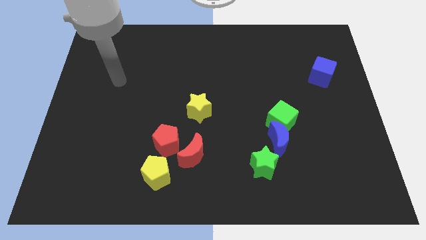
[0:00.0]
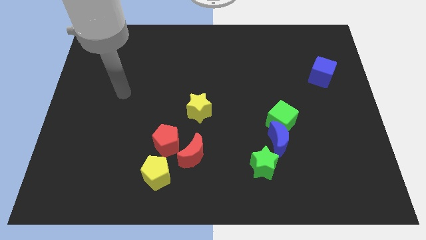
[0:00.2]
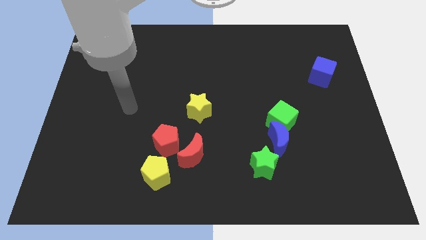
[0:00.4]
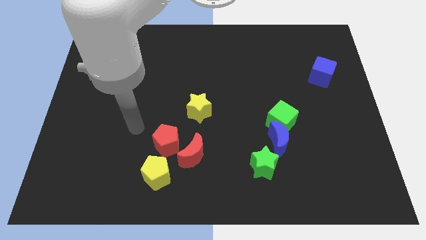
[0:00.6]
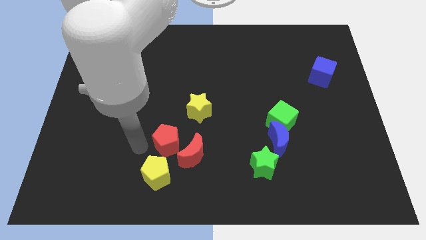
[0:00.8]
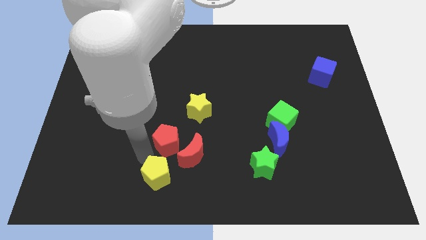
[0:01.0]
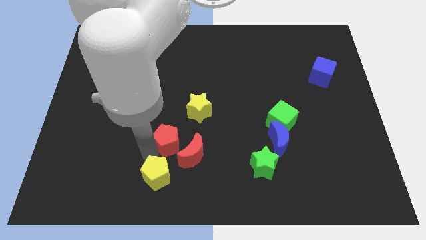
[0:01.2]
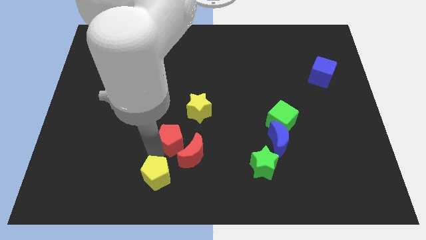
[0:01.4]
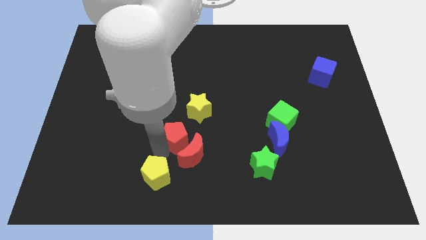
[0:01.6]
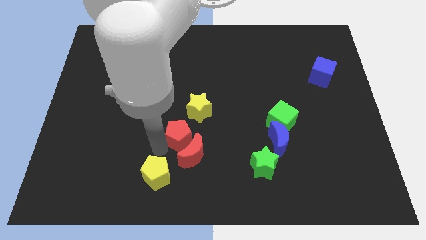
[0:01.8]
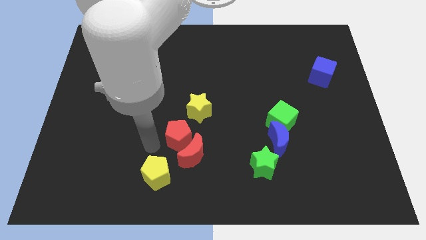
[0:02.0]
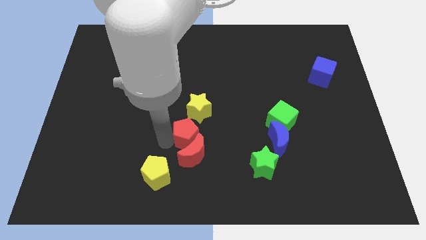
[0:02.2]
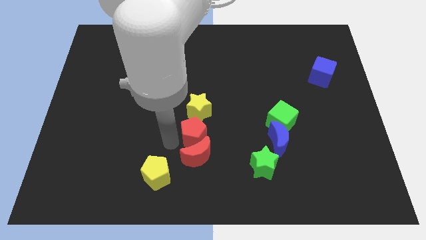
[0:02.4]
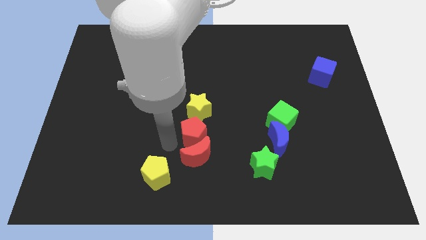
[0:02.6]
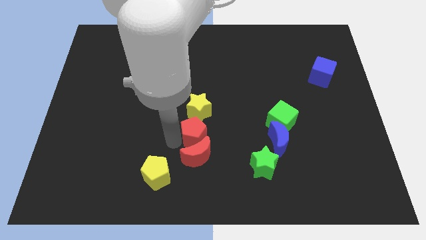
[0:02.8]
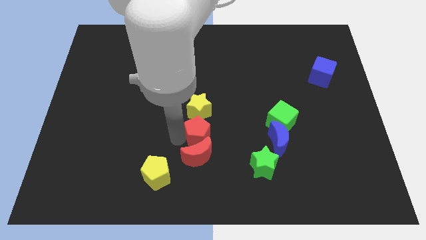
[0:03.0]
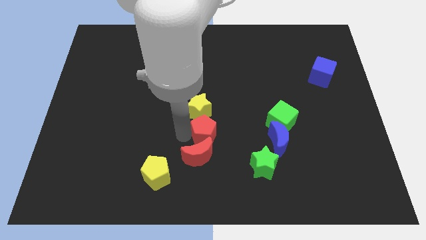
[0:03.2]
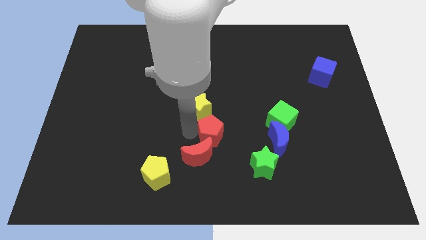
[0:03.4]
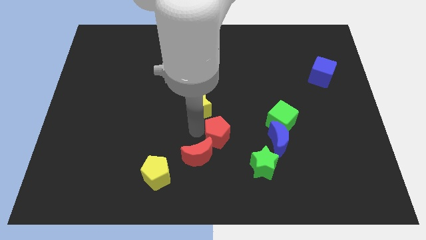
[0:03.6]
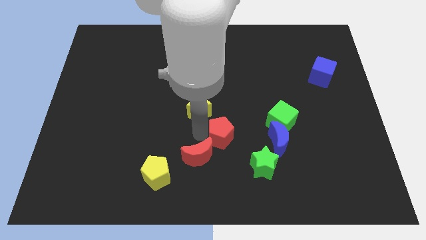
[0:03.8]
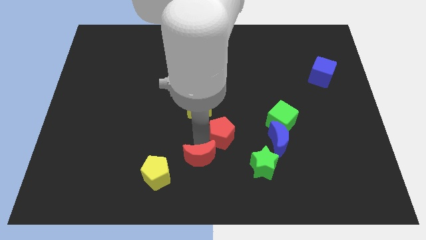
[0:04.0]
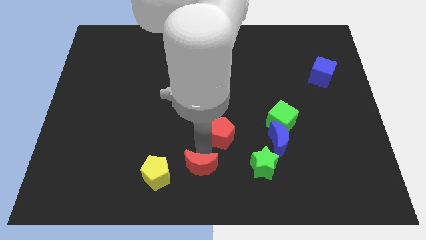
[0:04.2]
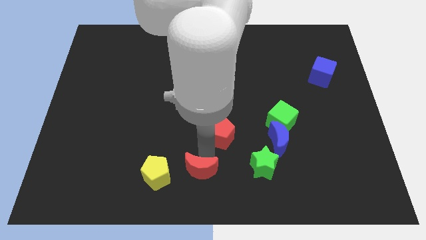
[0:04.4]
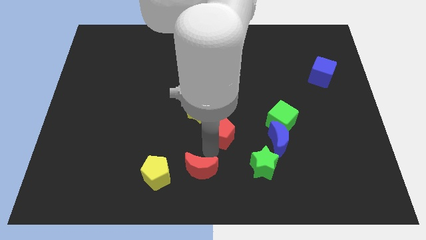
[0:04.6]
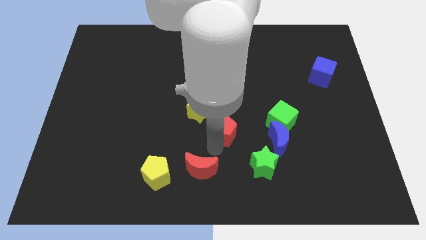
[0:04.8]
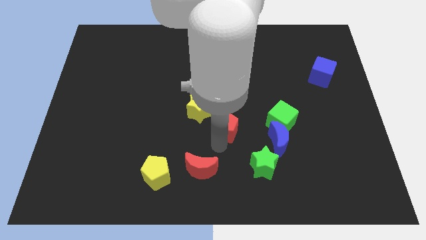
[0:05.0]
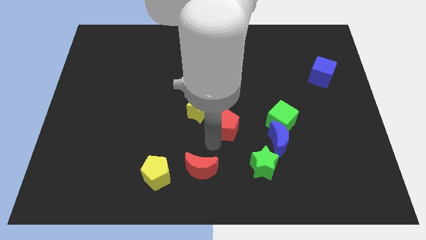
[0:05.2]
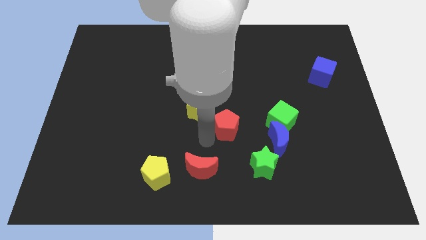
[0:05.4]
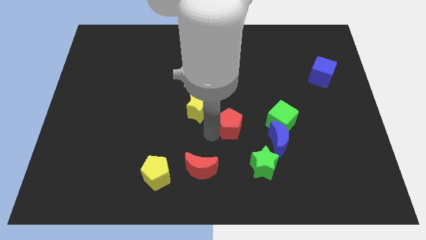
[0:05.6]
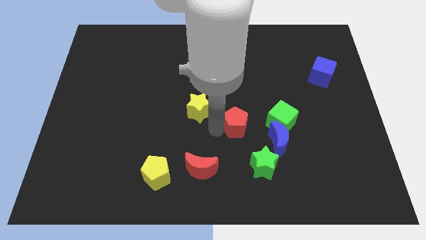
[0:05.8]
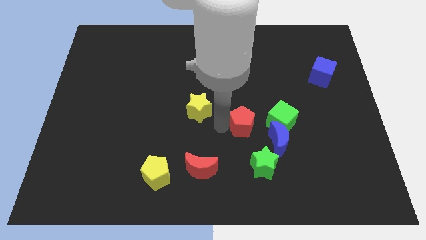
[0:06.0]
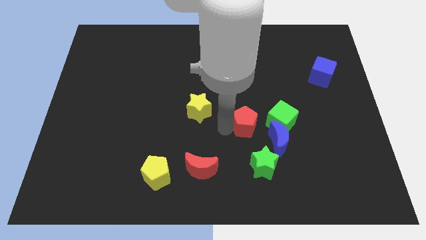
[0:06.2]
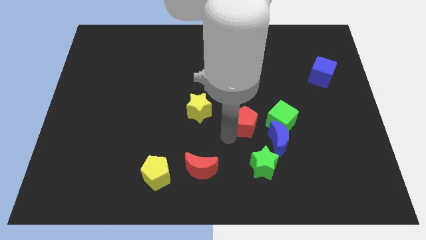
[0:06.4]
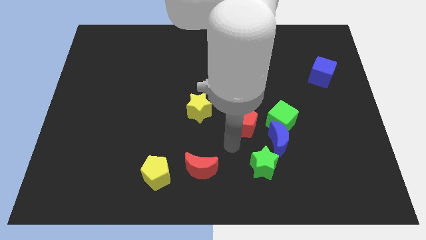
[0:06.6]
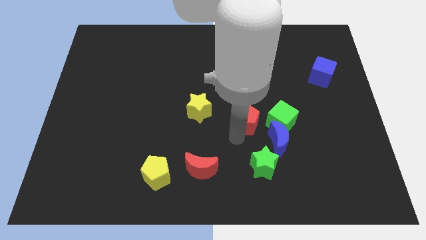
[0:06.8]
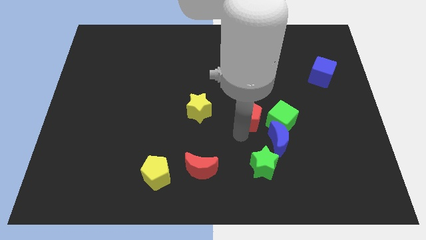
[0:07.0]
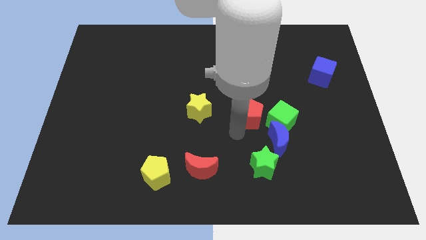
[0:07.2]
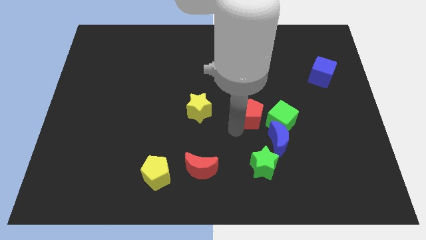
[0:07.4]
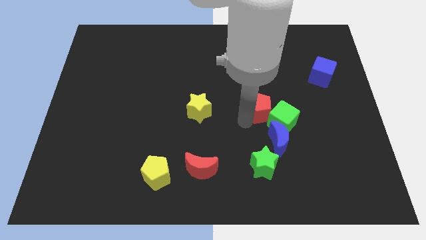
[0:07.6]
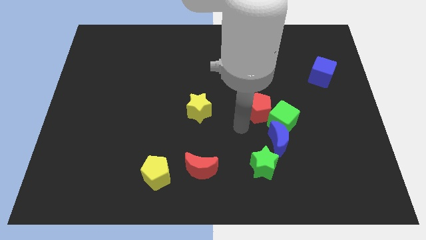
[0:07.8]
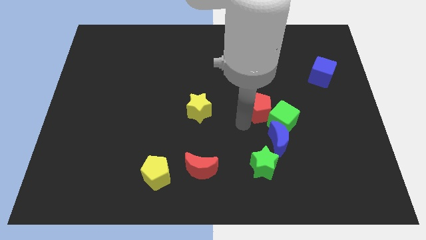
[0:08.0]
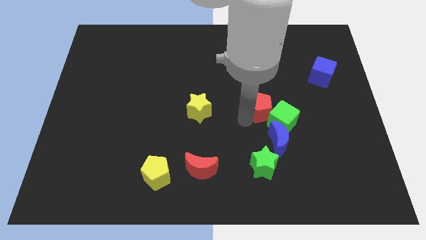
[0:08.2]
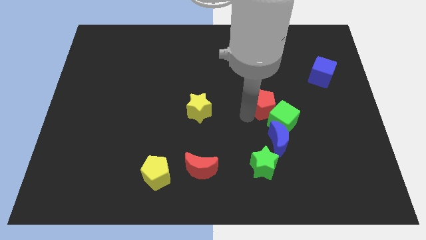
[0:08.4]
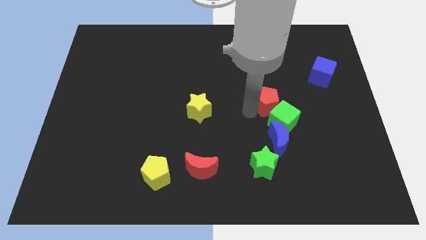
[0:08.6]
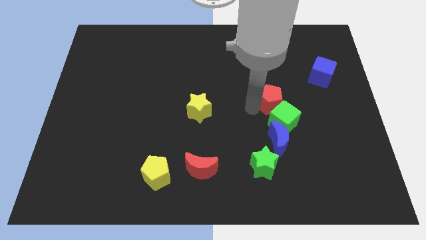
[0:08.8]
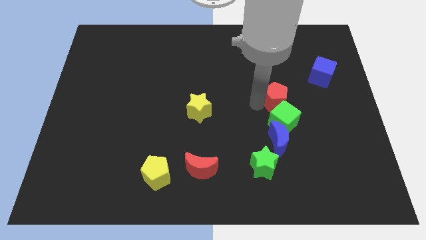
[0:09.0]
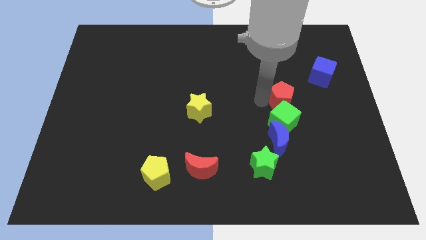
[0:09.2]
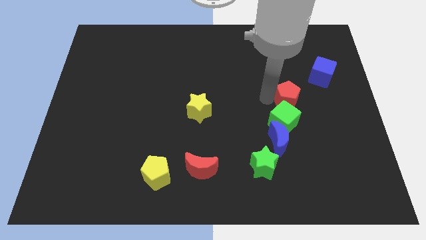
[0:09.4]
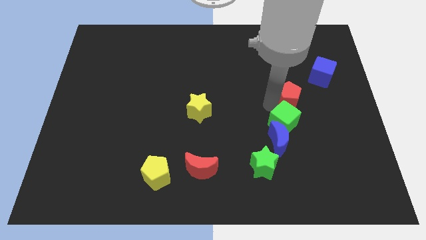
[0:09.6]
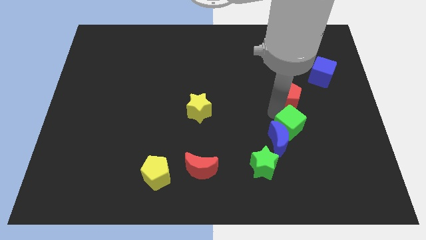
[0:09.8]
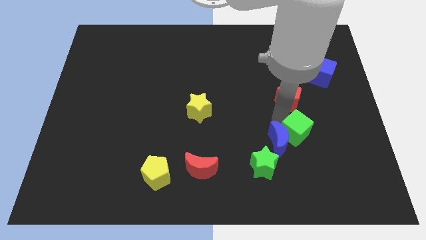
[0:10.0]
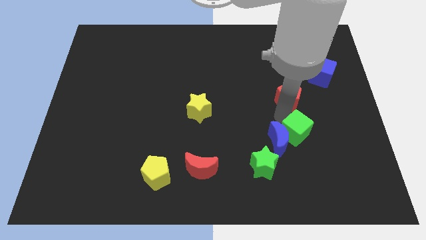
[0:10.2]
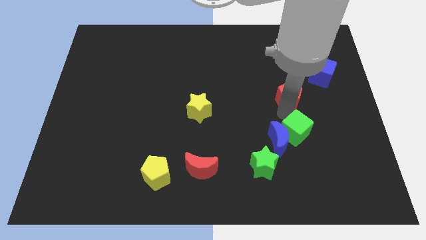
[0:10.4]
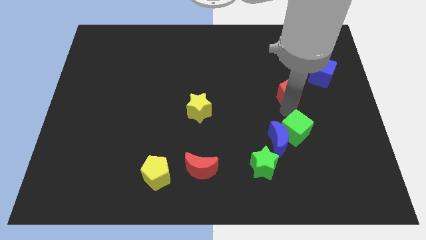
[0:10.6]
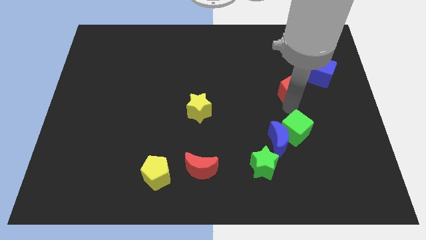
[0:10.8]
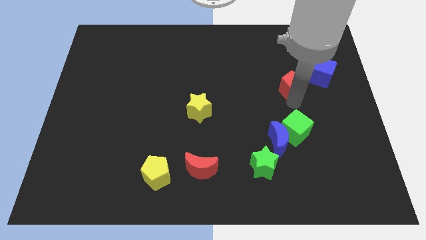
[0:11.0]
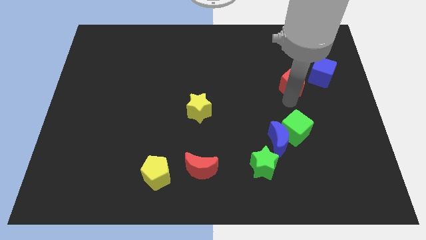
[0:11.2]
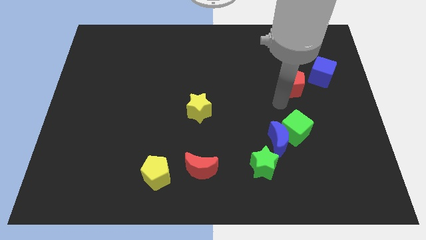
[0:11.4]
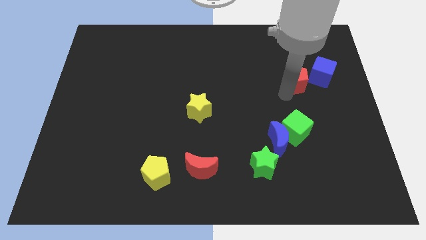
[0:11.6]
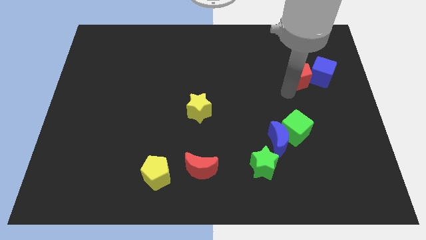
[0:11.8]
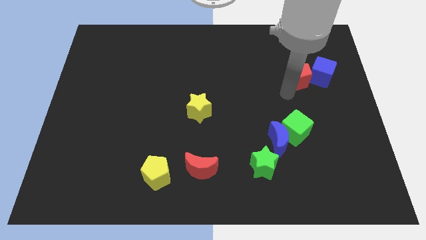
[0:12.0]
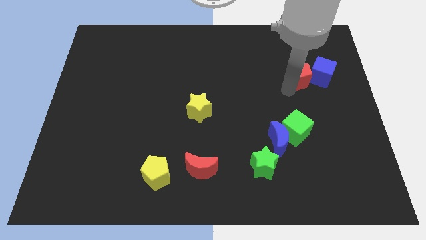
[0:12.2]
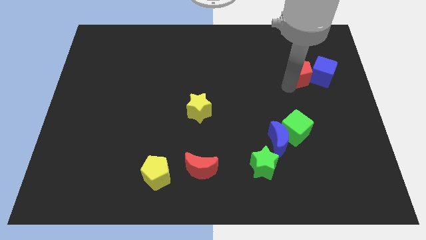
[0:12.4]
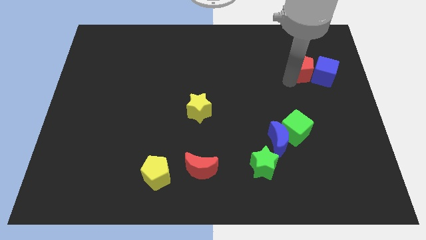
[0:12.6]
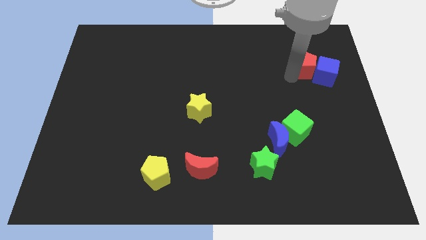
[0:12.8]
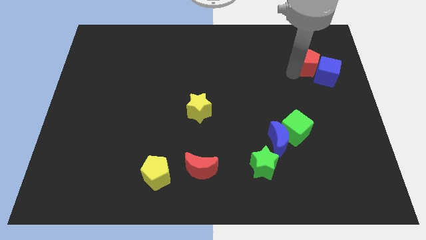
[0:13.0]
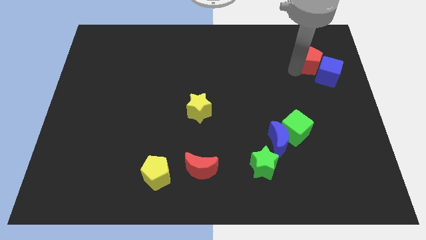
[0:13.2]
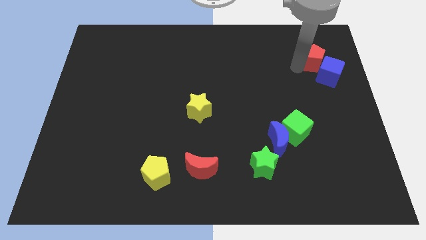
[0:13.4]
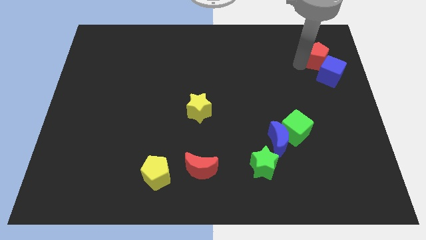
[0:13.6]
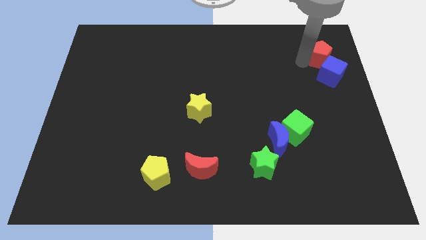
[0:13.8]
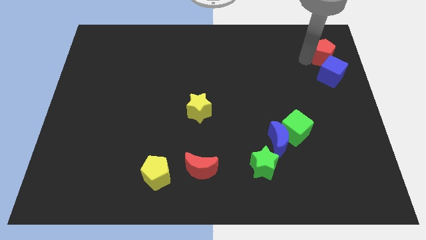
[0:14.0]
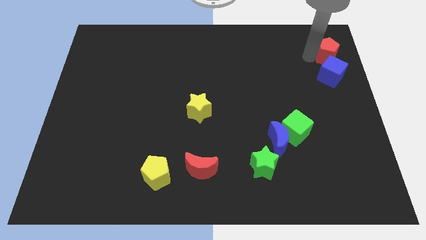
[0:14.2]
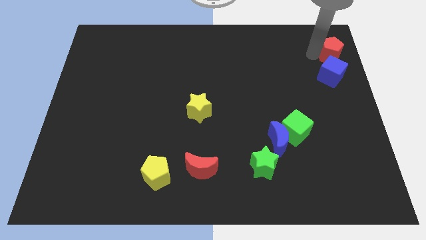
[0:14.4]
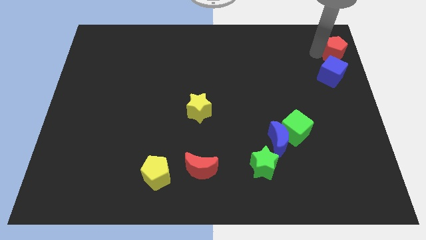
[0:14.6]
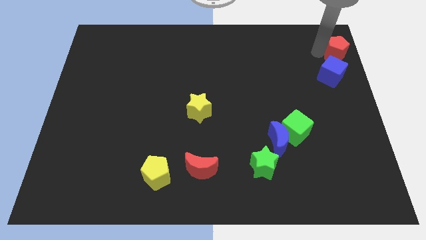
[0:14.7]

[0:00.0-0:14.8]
move the red pentagon to the top right
